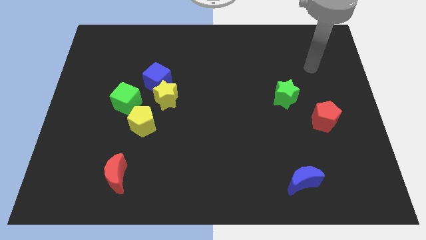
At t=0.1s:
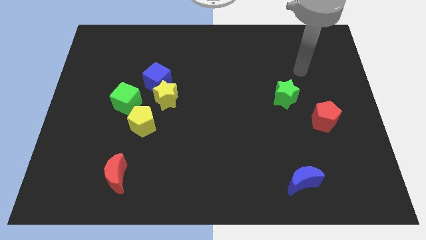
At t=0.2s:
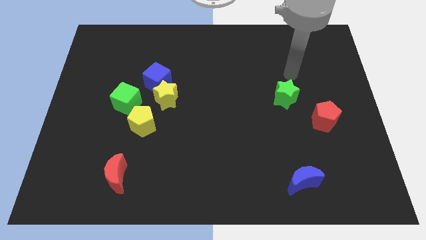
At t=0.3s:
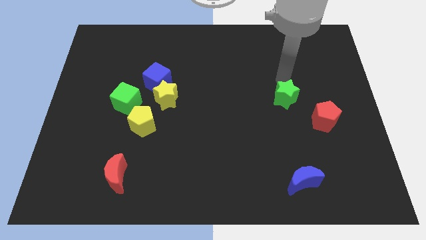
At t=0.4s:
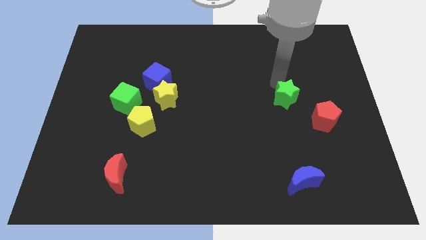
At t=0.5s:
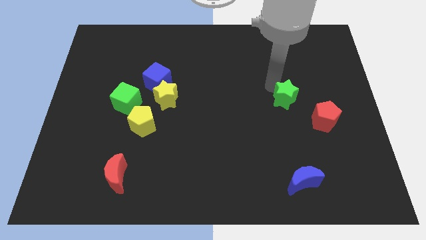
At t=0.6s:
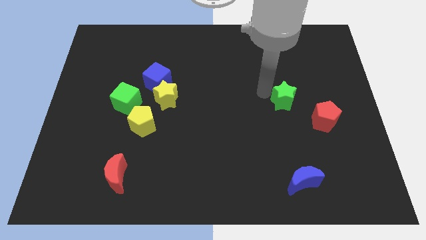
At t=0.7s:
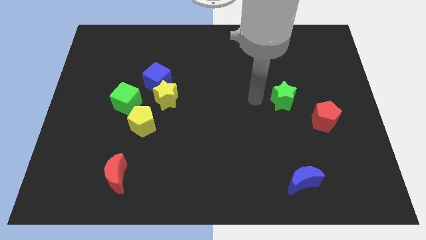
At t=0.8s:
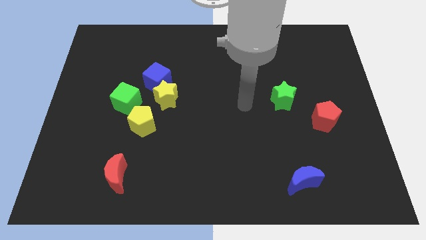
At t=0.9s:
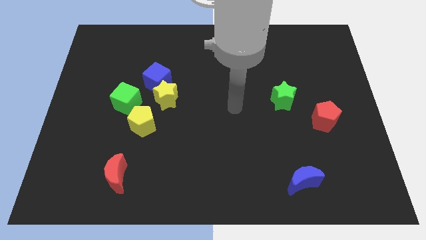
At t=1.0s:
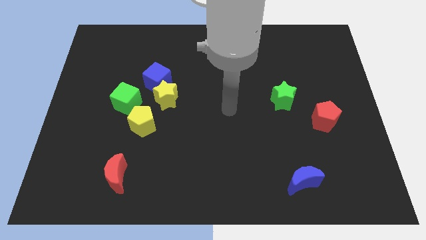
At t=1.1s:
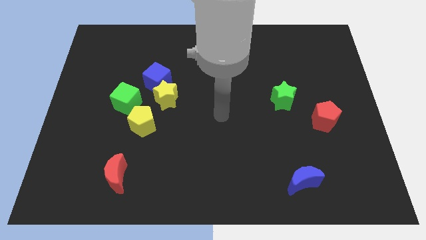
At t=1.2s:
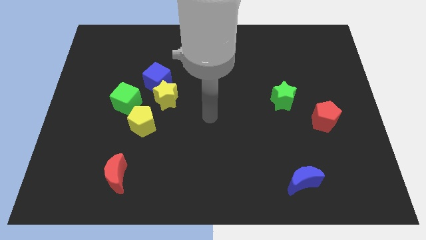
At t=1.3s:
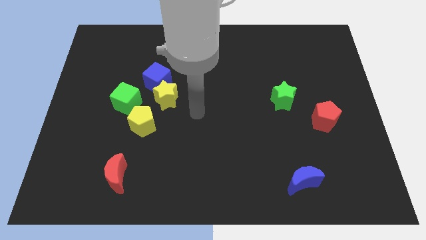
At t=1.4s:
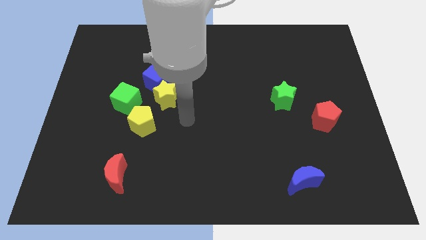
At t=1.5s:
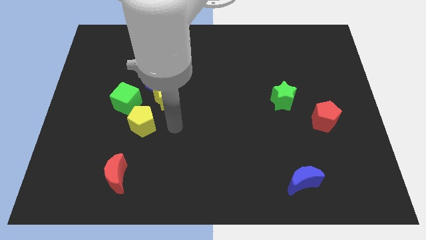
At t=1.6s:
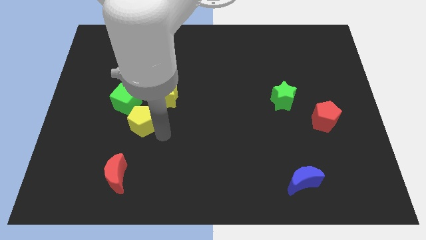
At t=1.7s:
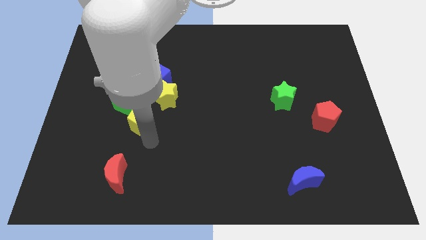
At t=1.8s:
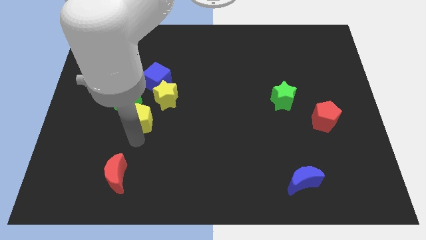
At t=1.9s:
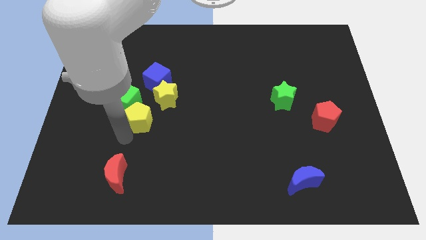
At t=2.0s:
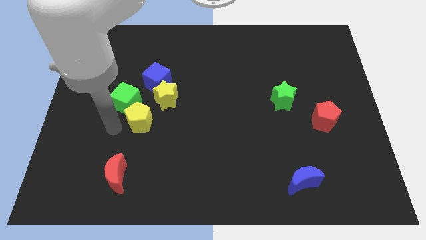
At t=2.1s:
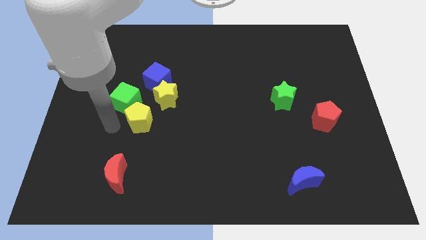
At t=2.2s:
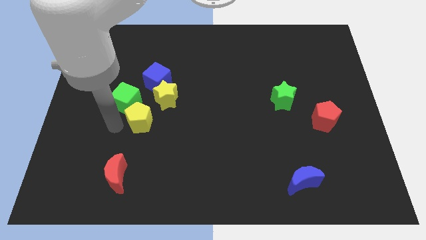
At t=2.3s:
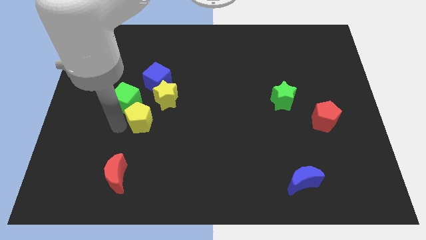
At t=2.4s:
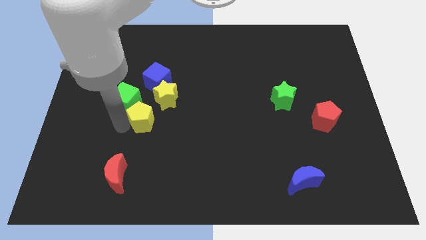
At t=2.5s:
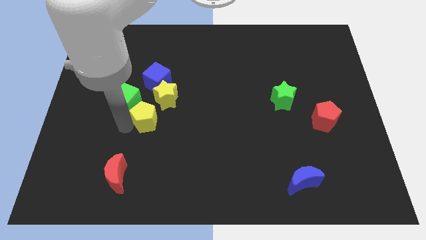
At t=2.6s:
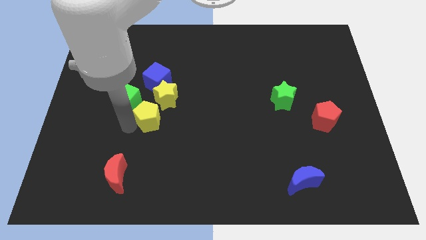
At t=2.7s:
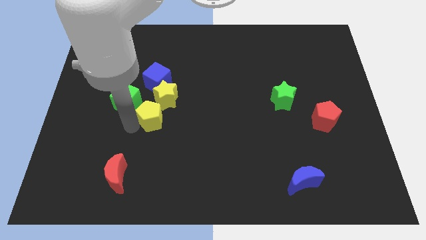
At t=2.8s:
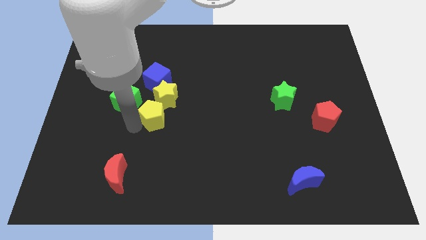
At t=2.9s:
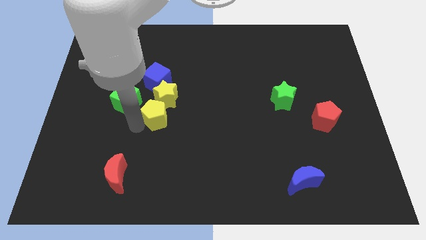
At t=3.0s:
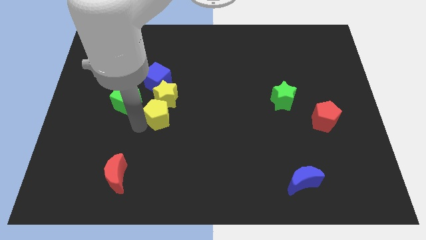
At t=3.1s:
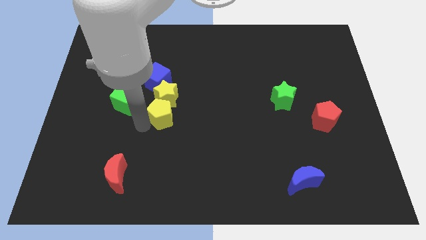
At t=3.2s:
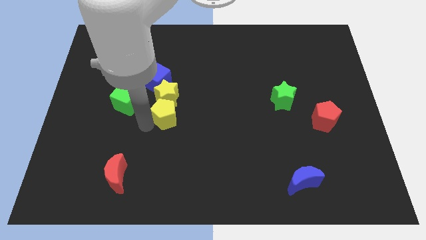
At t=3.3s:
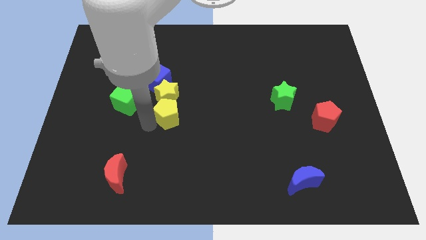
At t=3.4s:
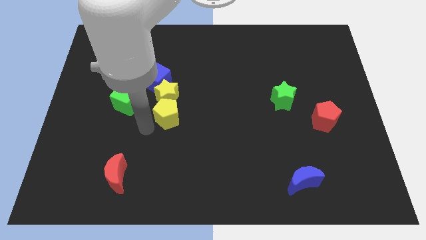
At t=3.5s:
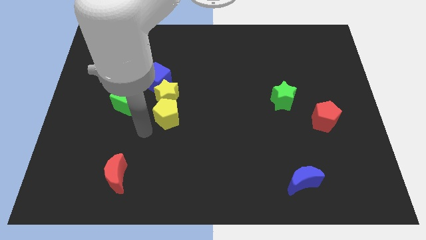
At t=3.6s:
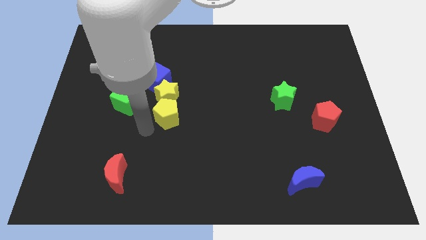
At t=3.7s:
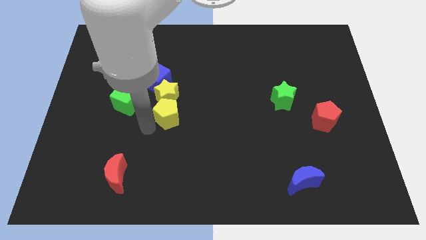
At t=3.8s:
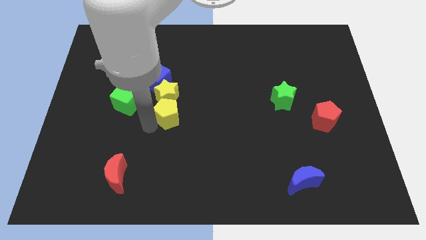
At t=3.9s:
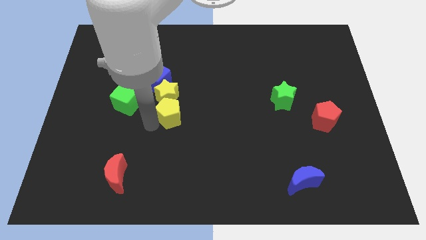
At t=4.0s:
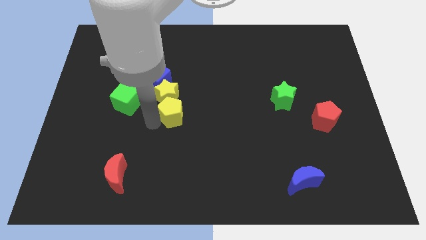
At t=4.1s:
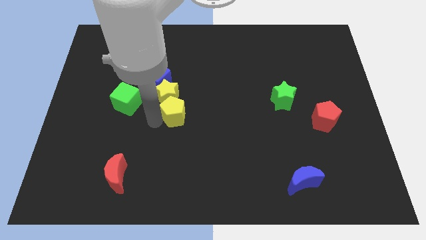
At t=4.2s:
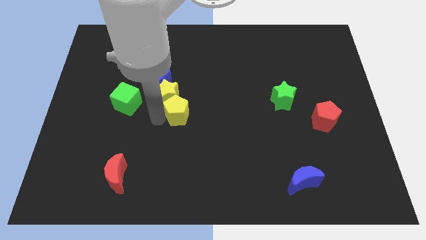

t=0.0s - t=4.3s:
push the yellow pentagon slightly upwards and to the right diagonally

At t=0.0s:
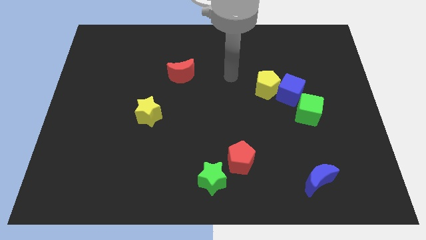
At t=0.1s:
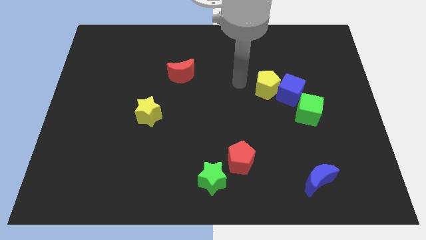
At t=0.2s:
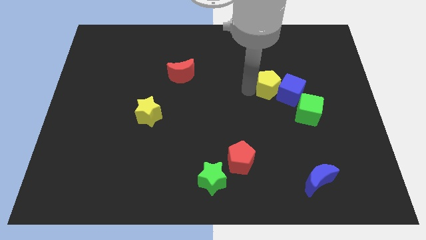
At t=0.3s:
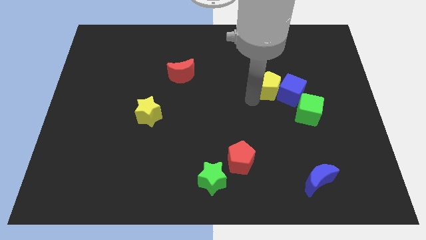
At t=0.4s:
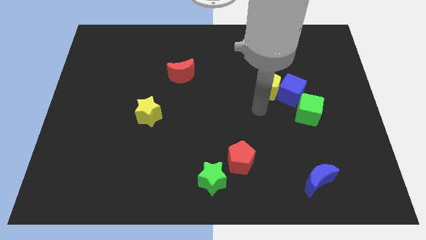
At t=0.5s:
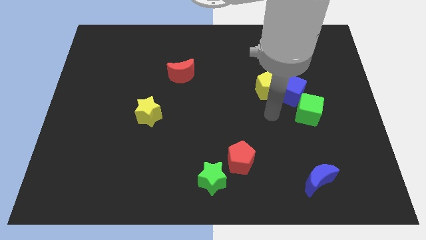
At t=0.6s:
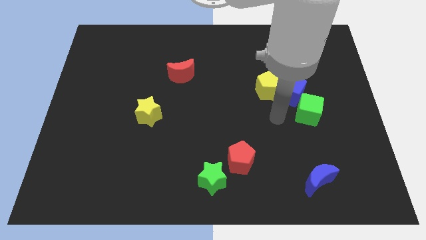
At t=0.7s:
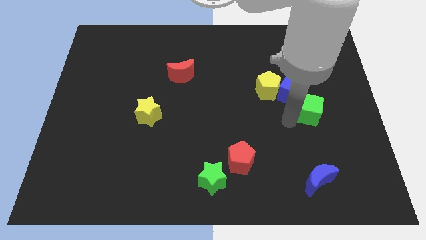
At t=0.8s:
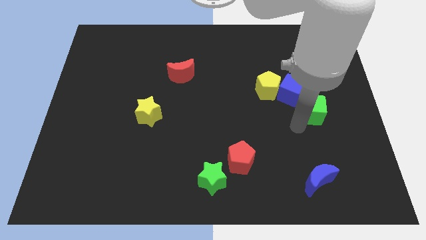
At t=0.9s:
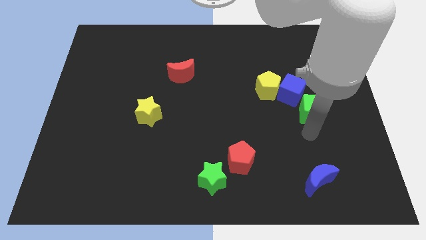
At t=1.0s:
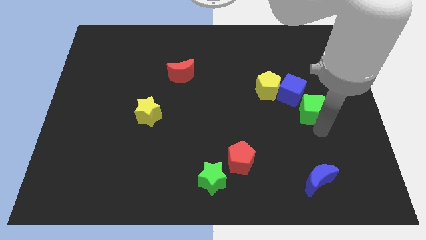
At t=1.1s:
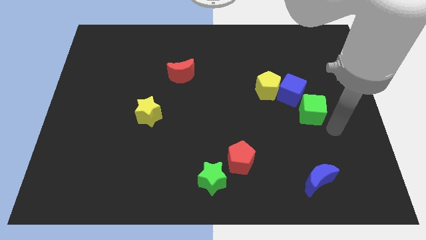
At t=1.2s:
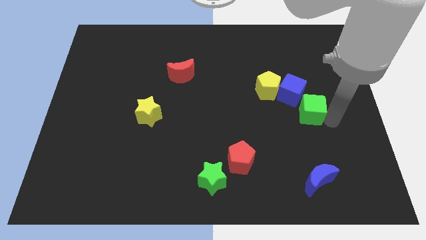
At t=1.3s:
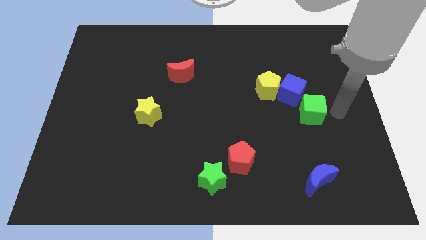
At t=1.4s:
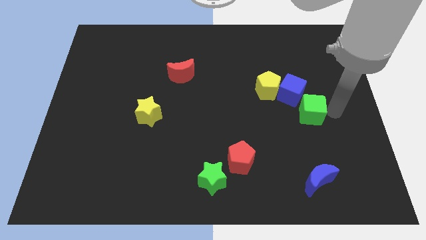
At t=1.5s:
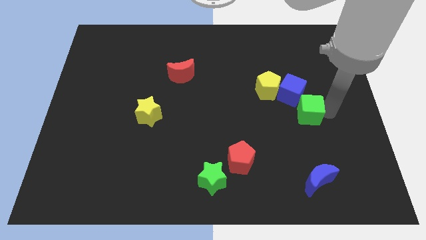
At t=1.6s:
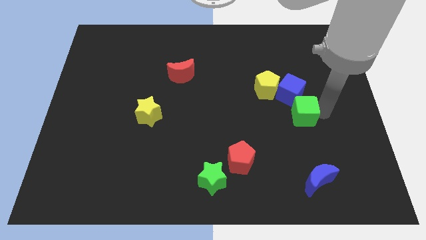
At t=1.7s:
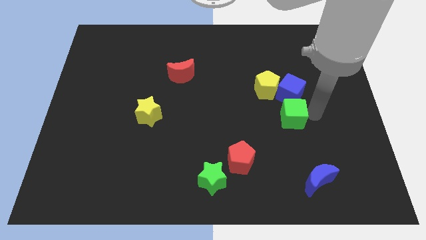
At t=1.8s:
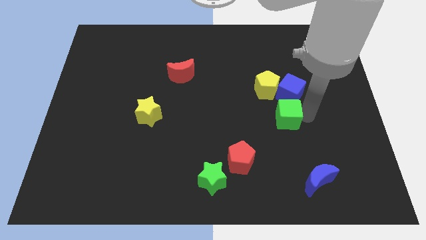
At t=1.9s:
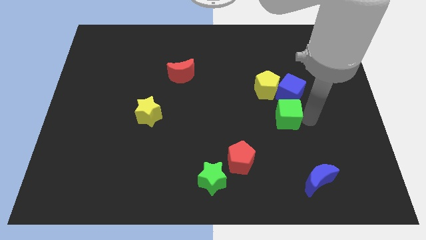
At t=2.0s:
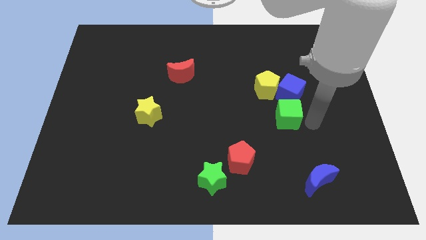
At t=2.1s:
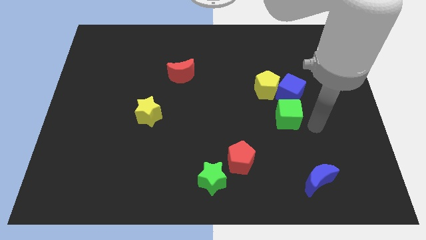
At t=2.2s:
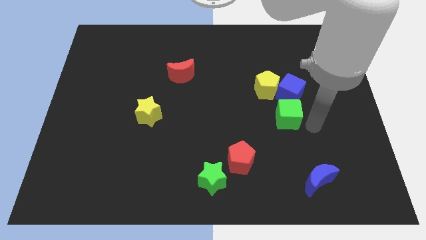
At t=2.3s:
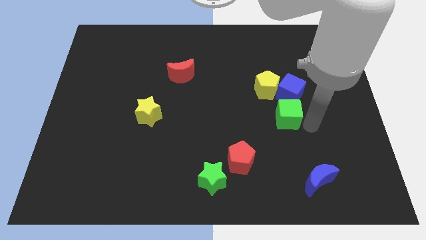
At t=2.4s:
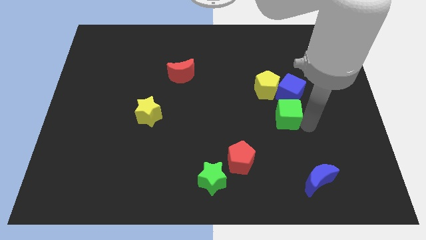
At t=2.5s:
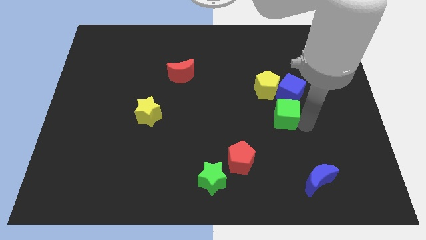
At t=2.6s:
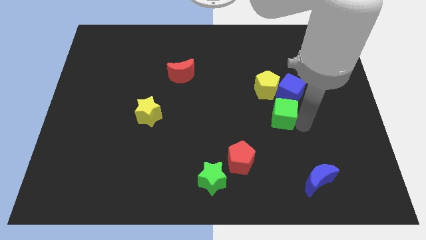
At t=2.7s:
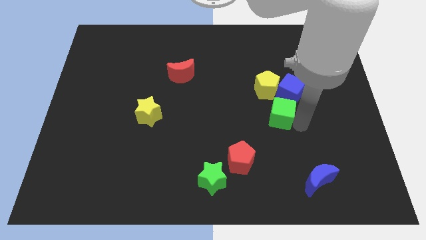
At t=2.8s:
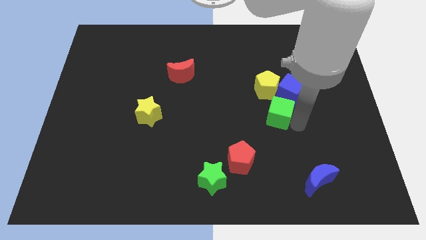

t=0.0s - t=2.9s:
slightly move the green cube to the left

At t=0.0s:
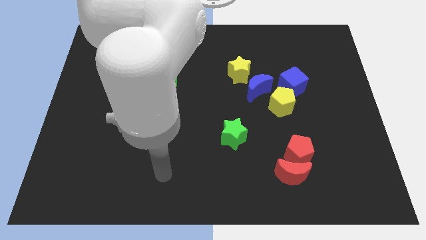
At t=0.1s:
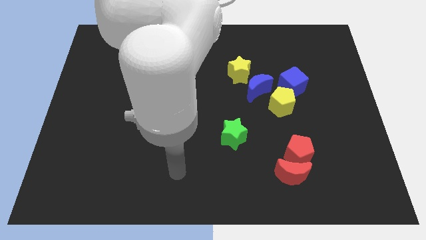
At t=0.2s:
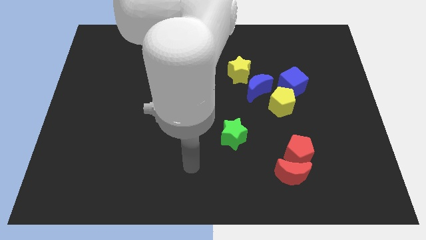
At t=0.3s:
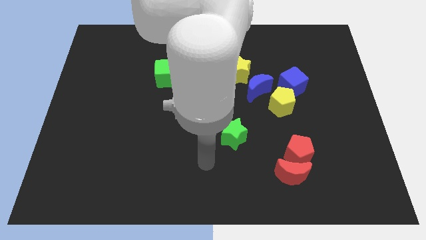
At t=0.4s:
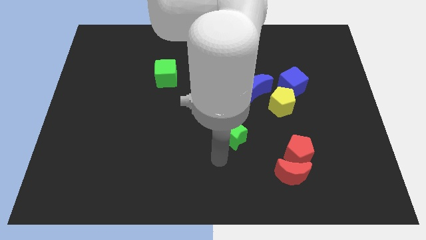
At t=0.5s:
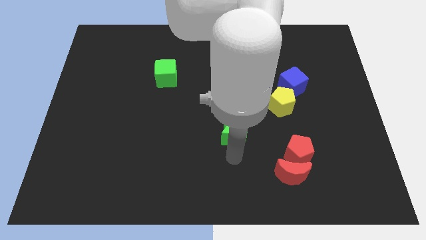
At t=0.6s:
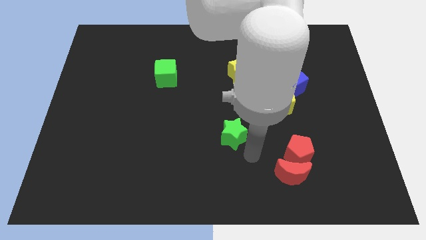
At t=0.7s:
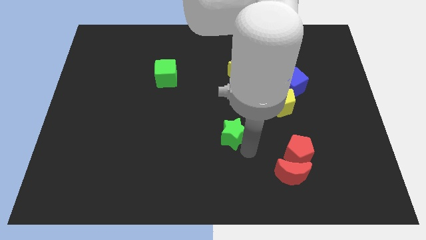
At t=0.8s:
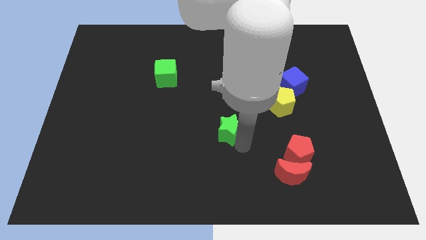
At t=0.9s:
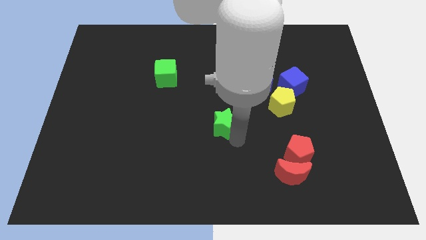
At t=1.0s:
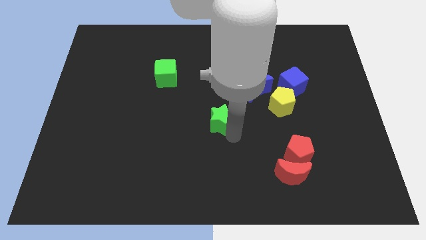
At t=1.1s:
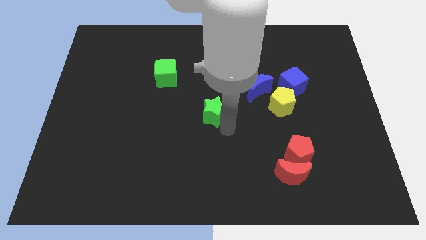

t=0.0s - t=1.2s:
slightly push the green star up and then to the left

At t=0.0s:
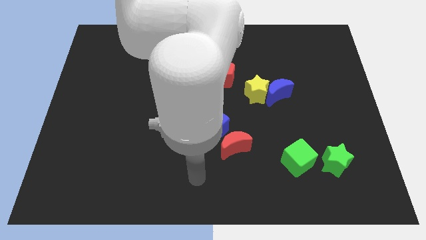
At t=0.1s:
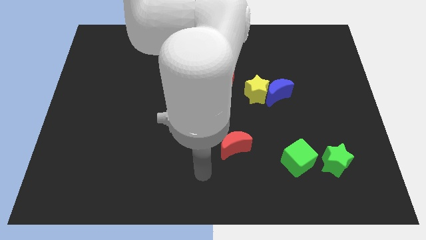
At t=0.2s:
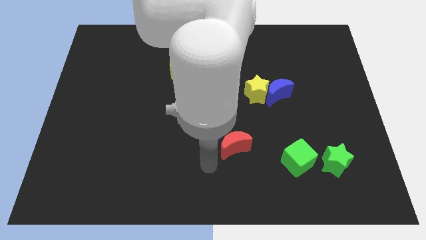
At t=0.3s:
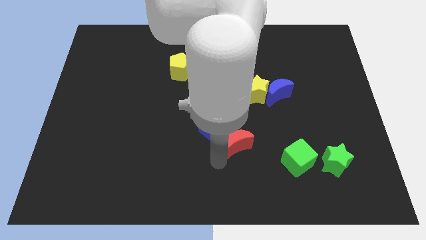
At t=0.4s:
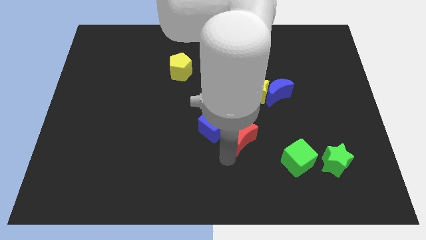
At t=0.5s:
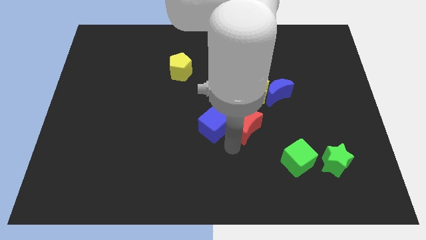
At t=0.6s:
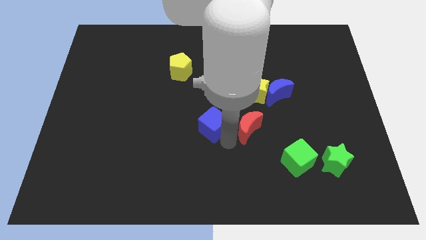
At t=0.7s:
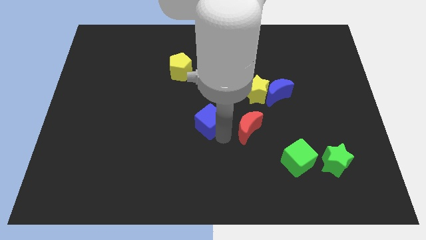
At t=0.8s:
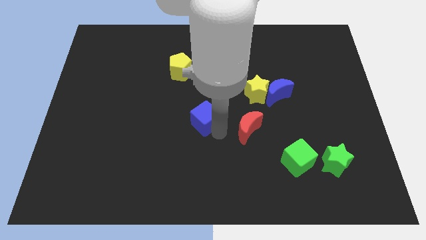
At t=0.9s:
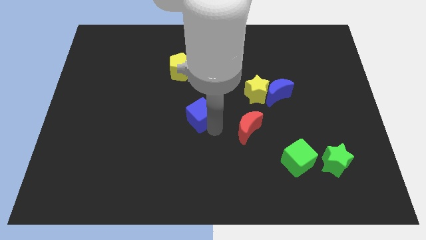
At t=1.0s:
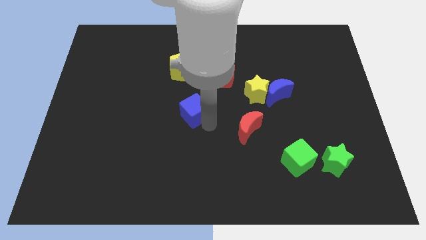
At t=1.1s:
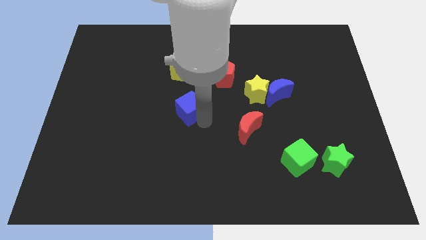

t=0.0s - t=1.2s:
move the blue cube diagonally upwards and left a little
